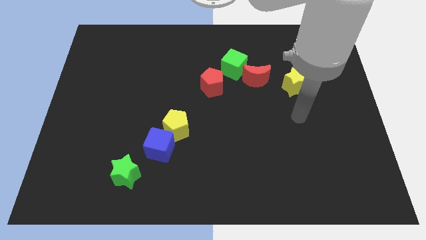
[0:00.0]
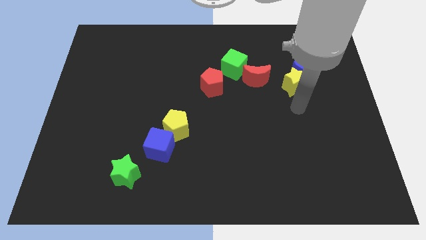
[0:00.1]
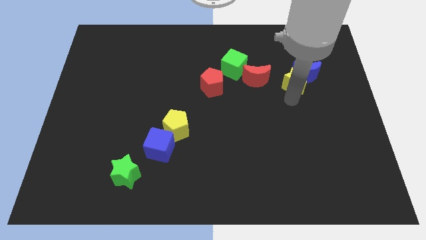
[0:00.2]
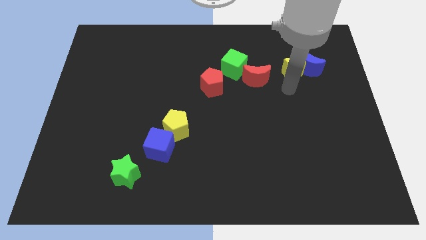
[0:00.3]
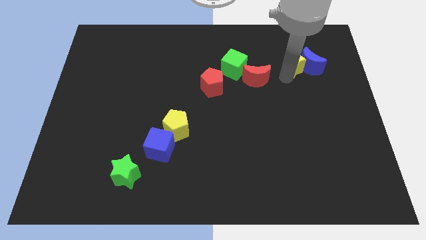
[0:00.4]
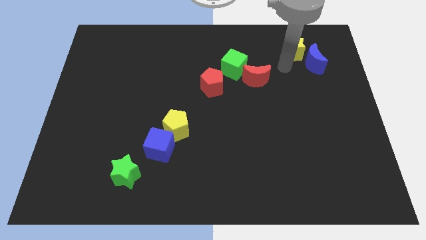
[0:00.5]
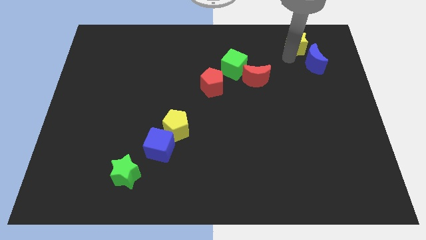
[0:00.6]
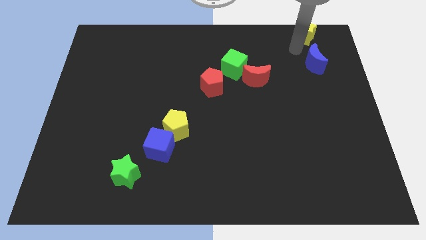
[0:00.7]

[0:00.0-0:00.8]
move the blue moon away from the yellow star

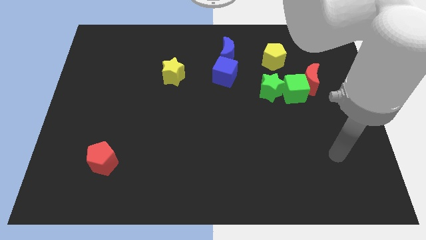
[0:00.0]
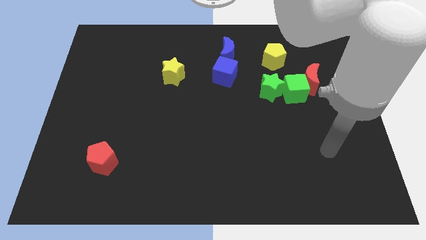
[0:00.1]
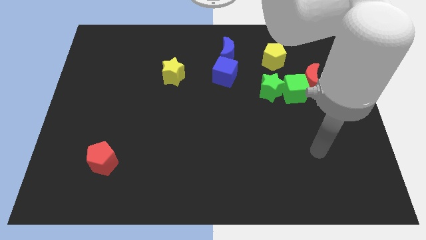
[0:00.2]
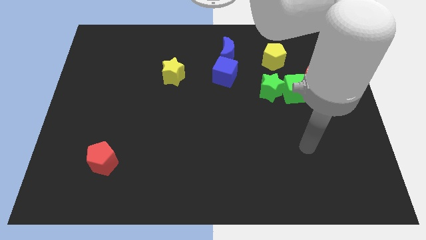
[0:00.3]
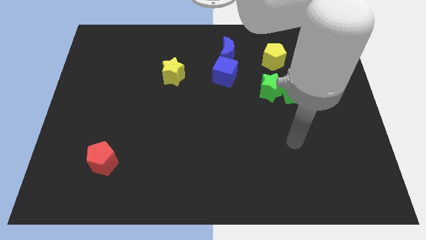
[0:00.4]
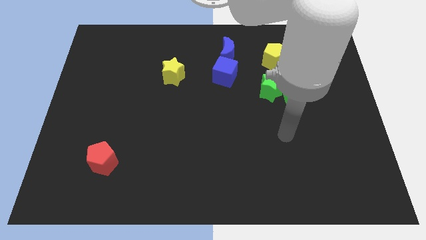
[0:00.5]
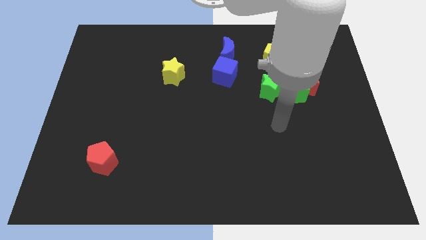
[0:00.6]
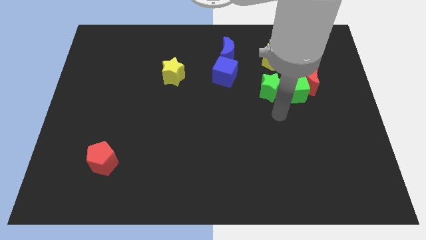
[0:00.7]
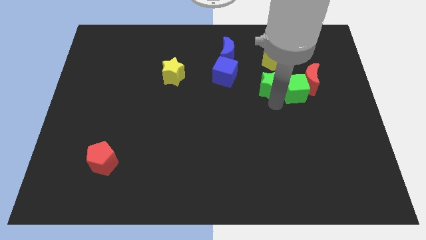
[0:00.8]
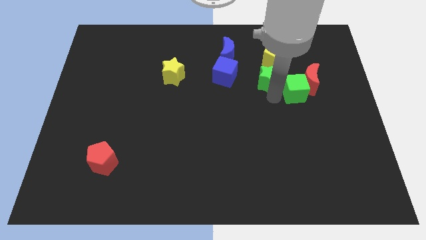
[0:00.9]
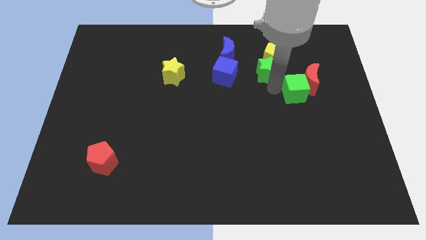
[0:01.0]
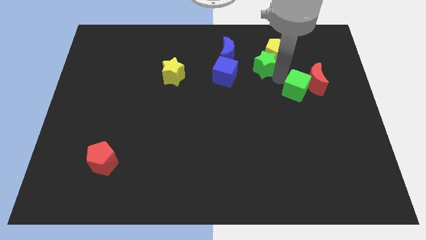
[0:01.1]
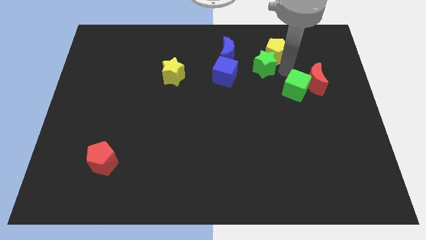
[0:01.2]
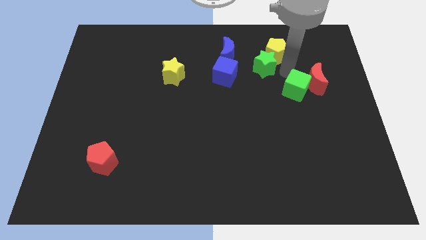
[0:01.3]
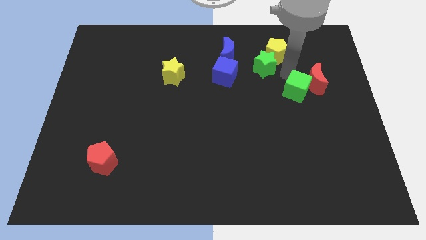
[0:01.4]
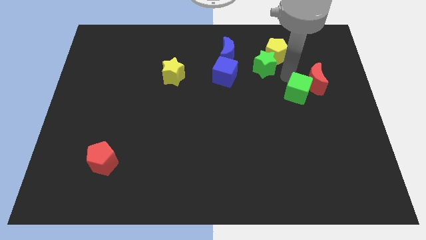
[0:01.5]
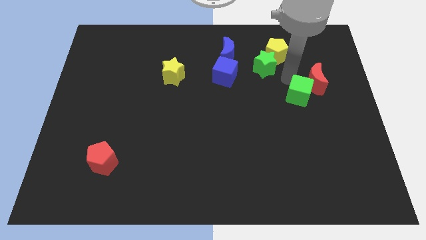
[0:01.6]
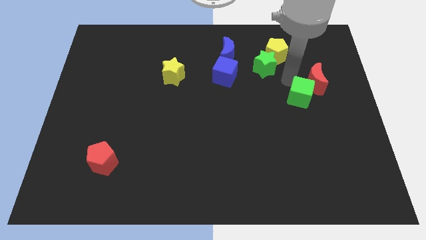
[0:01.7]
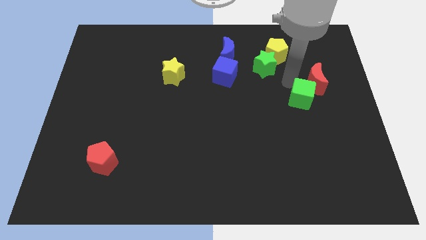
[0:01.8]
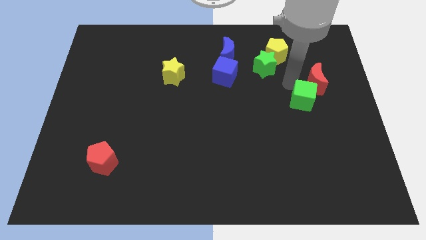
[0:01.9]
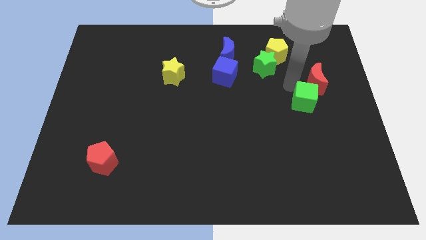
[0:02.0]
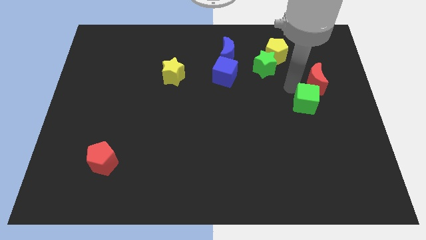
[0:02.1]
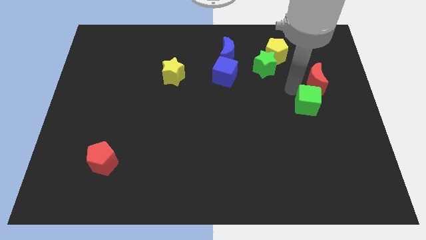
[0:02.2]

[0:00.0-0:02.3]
separate the green cube from the red moon and green star

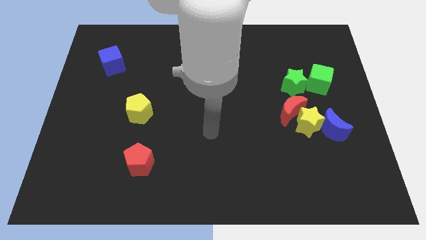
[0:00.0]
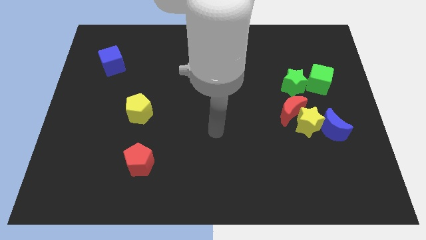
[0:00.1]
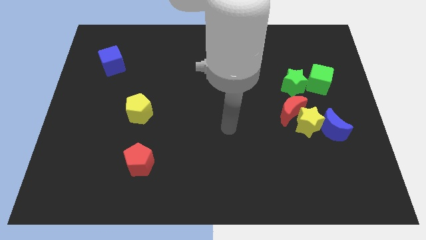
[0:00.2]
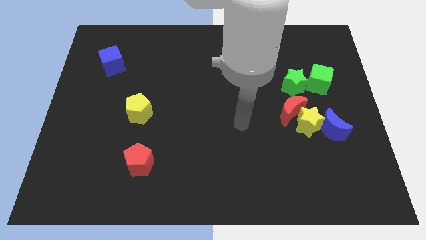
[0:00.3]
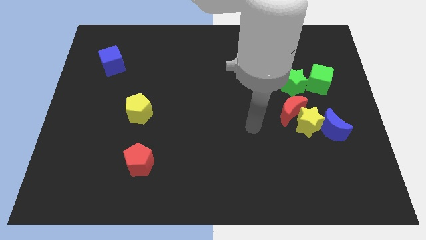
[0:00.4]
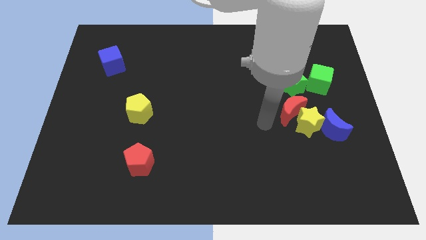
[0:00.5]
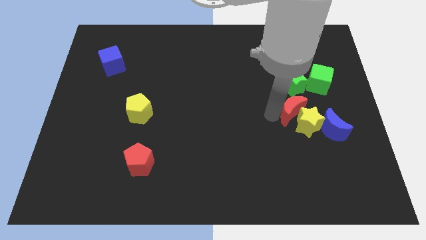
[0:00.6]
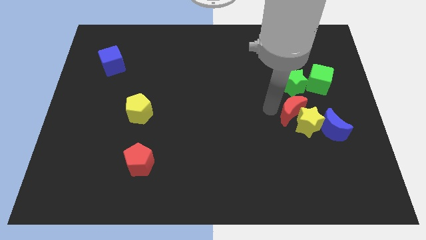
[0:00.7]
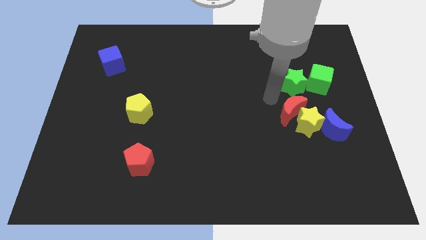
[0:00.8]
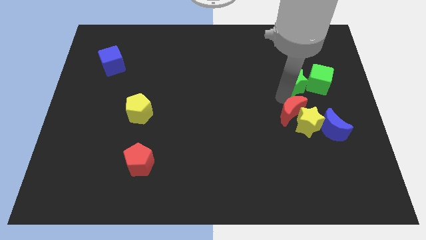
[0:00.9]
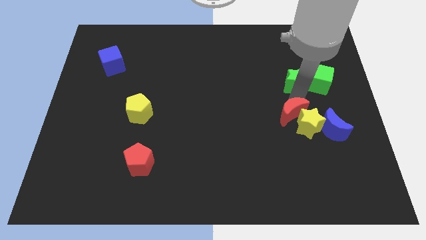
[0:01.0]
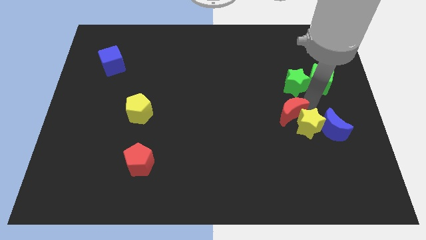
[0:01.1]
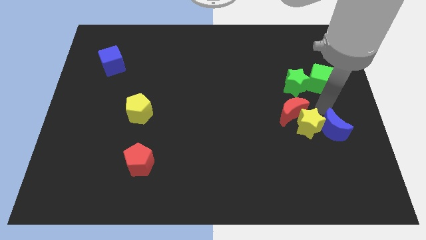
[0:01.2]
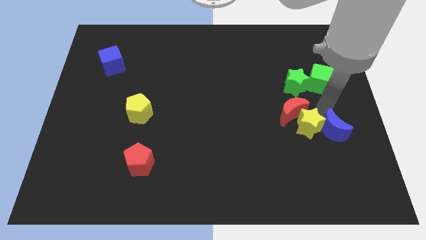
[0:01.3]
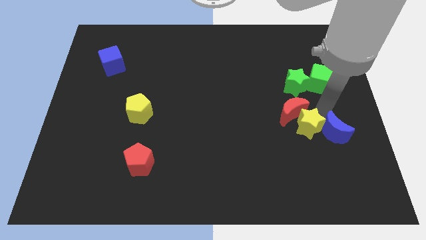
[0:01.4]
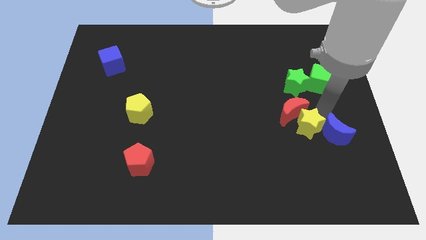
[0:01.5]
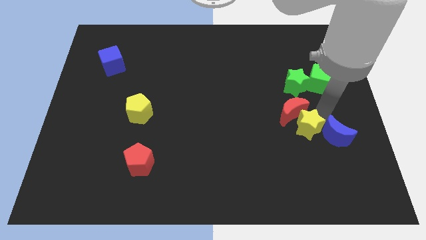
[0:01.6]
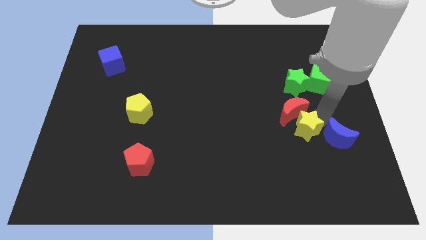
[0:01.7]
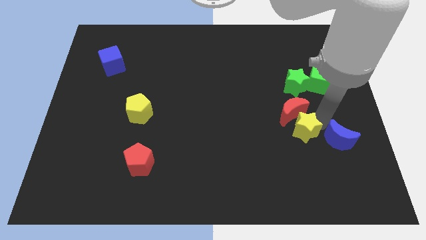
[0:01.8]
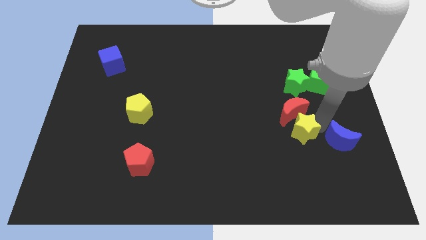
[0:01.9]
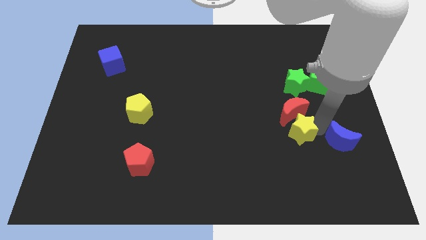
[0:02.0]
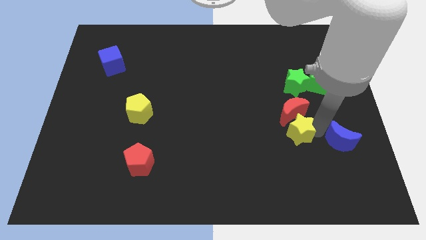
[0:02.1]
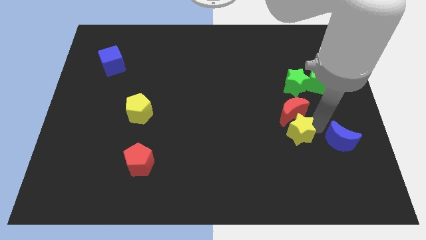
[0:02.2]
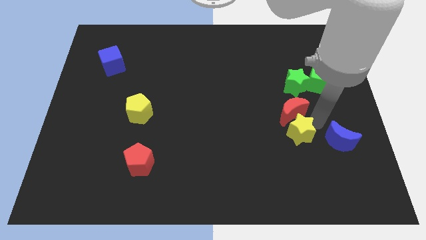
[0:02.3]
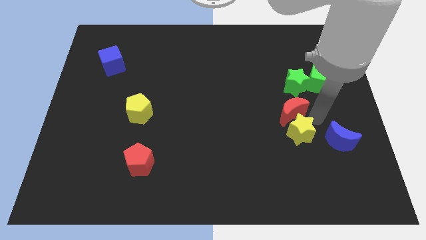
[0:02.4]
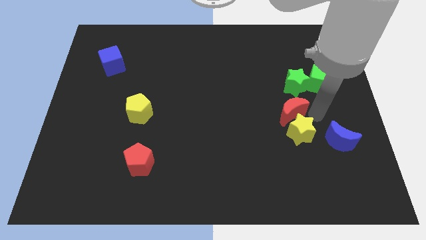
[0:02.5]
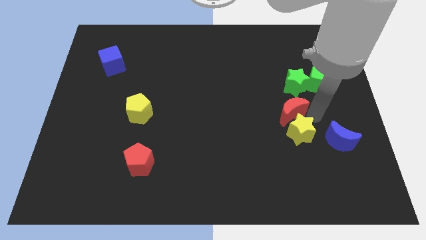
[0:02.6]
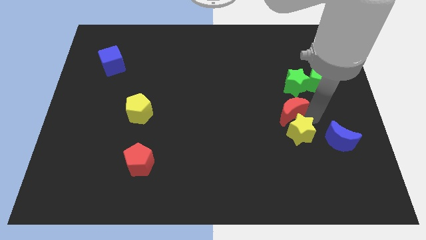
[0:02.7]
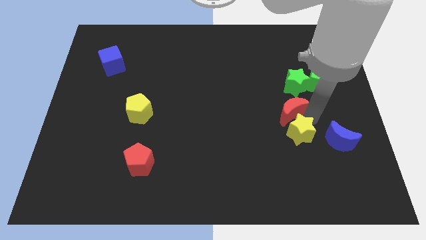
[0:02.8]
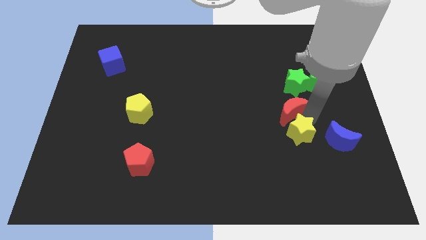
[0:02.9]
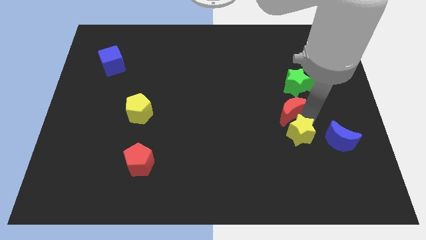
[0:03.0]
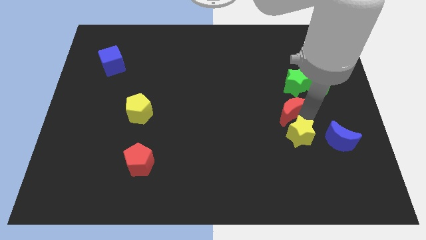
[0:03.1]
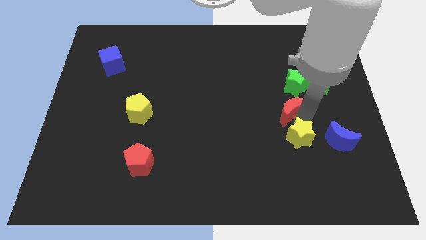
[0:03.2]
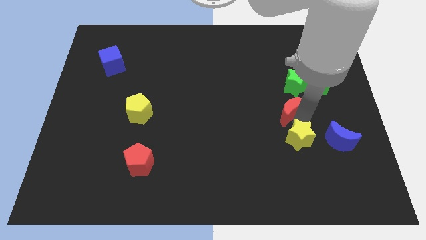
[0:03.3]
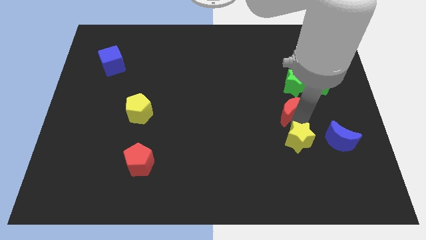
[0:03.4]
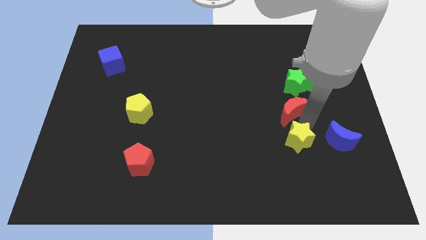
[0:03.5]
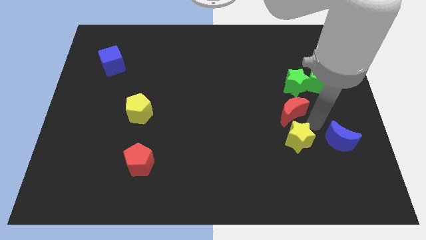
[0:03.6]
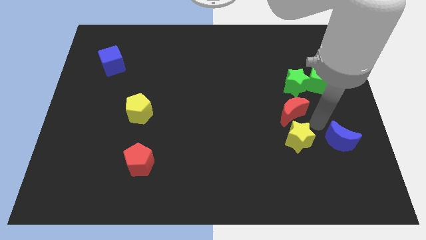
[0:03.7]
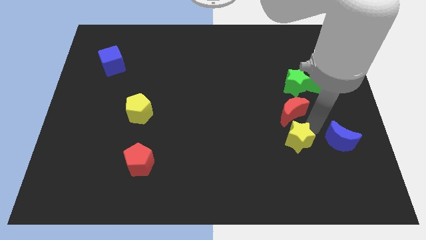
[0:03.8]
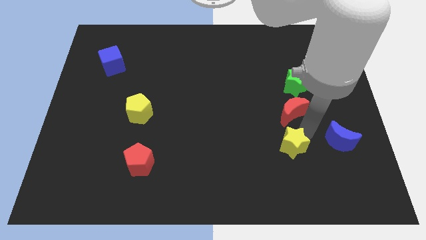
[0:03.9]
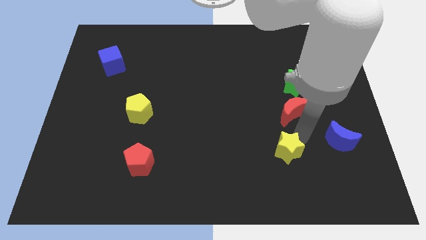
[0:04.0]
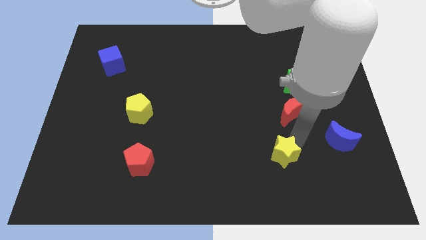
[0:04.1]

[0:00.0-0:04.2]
separate the yellow star from the red moon and blue moon

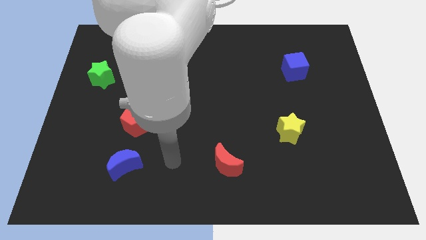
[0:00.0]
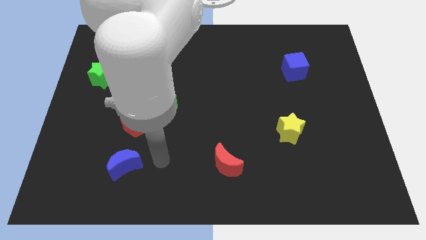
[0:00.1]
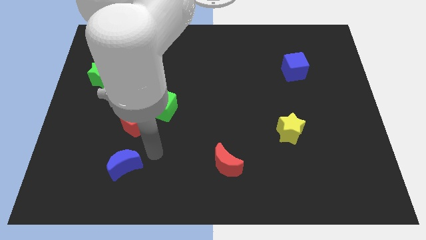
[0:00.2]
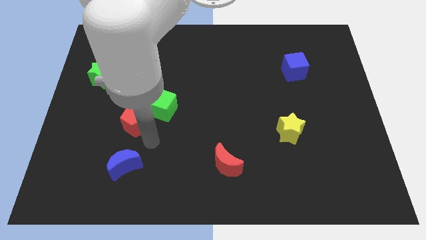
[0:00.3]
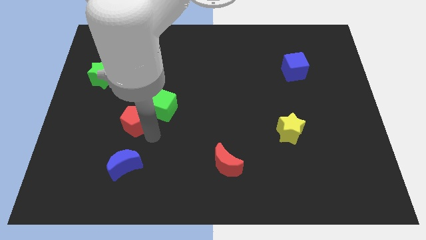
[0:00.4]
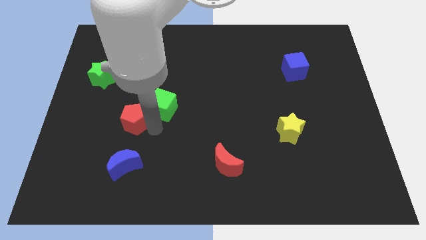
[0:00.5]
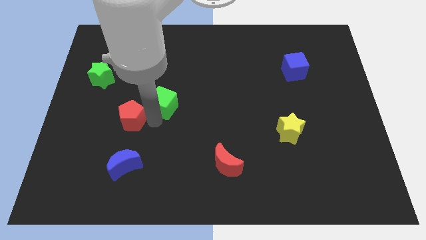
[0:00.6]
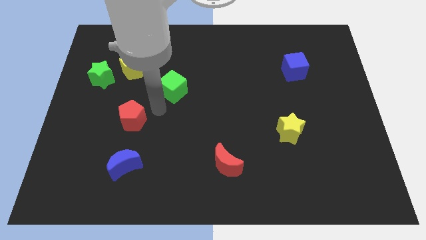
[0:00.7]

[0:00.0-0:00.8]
move the red pentagon away from the green cube

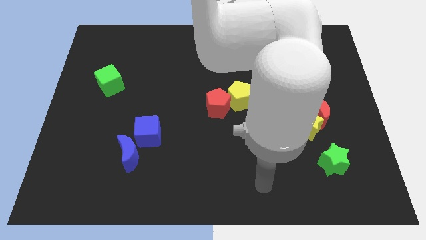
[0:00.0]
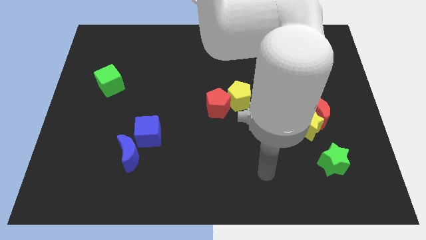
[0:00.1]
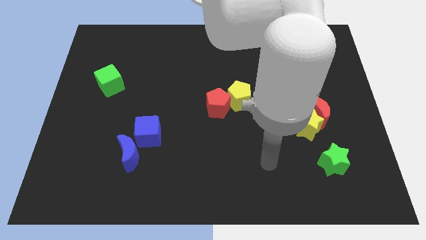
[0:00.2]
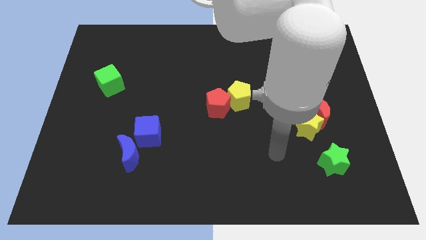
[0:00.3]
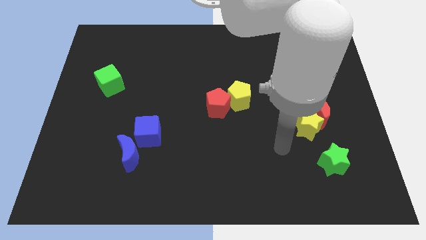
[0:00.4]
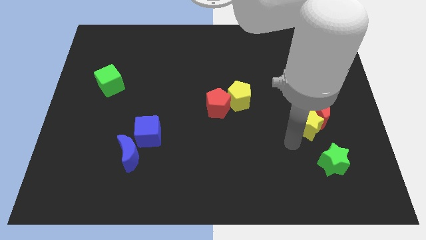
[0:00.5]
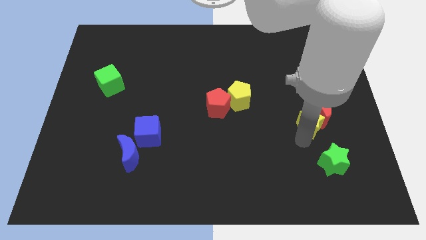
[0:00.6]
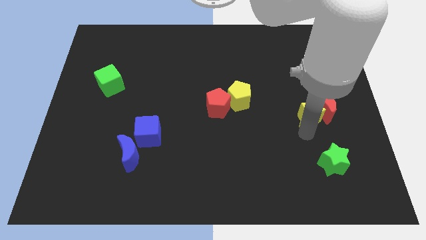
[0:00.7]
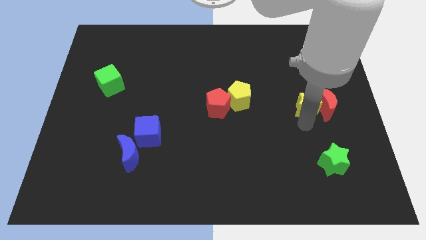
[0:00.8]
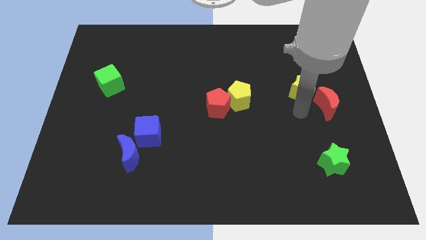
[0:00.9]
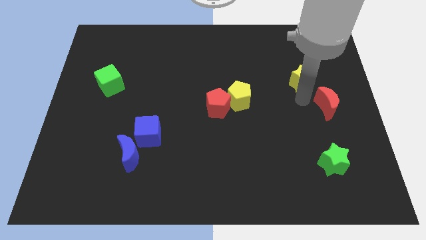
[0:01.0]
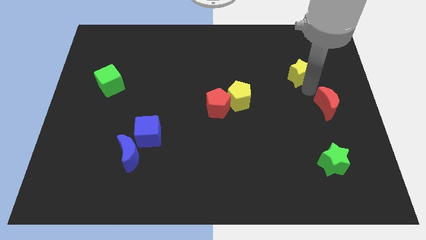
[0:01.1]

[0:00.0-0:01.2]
move the red moon away from the yellow star
